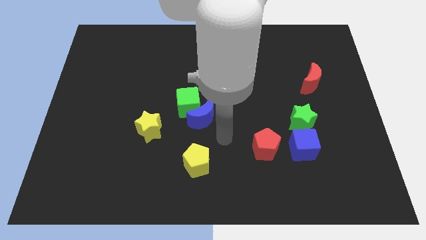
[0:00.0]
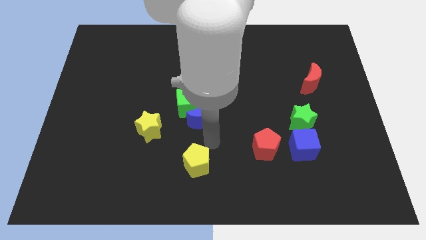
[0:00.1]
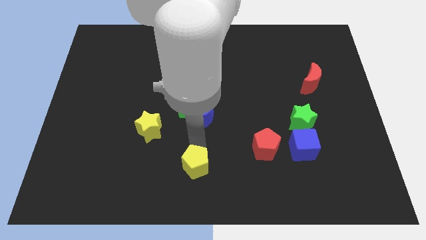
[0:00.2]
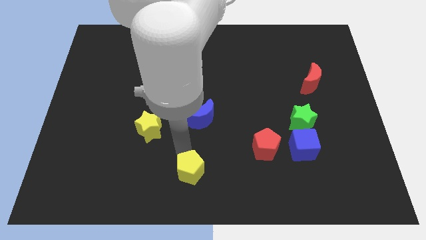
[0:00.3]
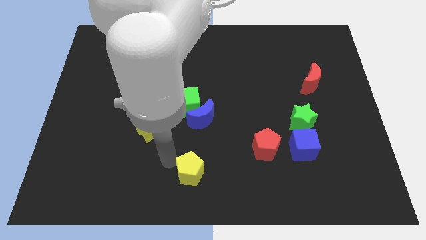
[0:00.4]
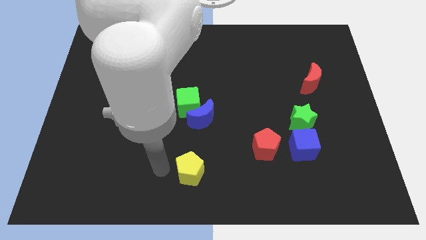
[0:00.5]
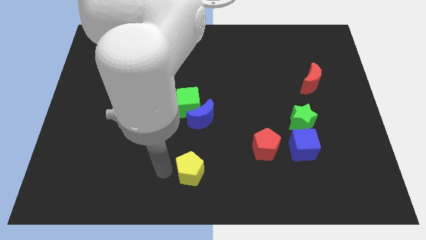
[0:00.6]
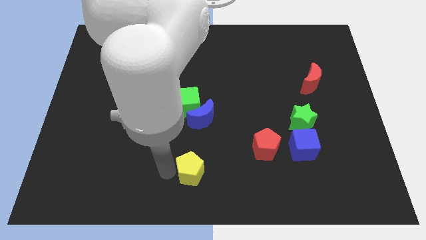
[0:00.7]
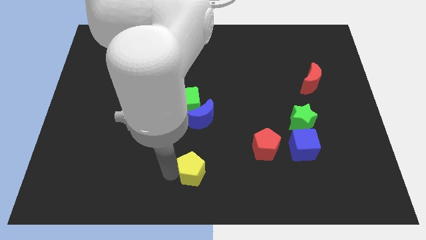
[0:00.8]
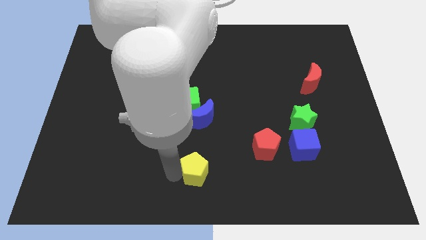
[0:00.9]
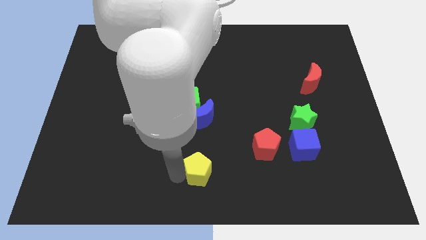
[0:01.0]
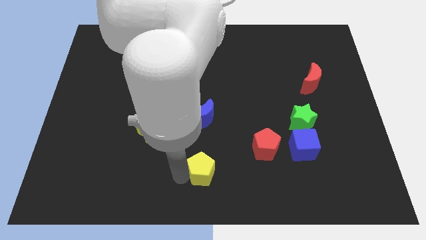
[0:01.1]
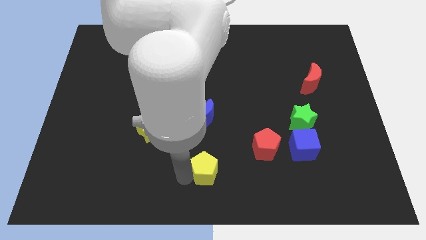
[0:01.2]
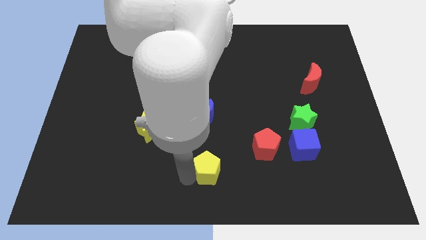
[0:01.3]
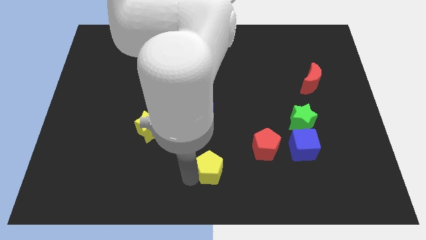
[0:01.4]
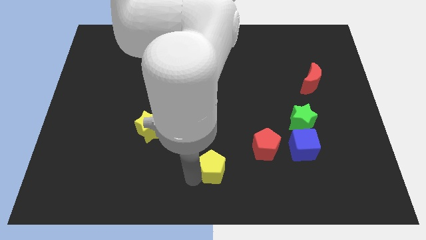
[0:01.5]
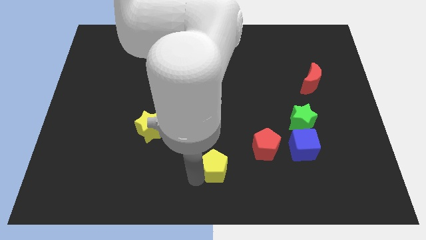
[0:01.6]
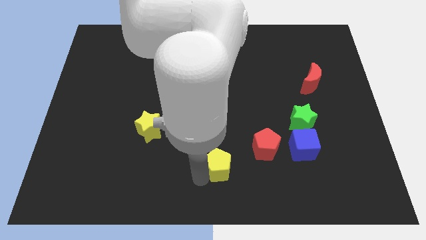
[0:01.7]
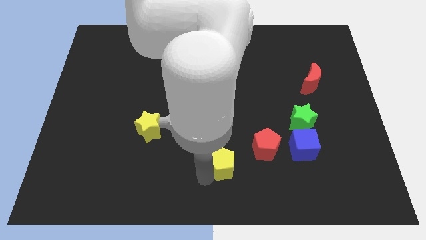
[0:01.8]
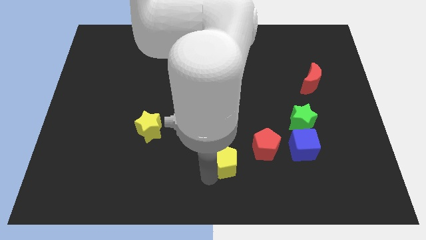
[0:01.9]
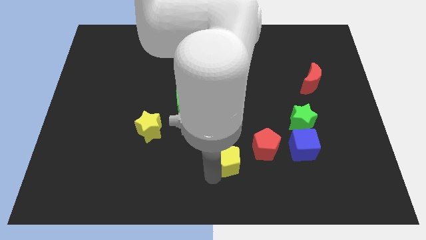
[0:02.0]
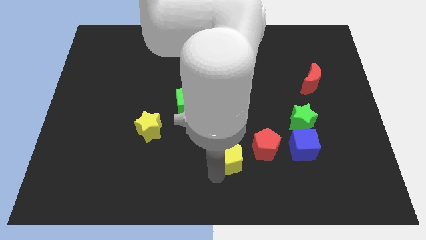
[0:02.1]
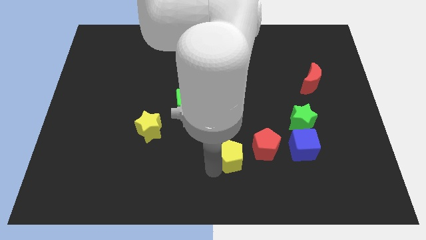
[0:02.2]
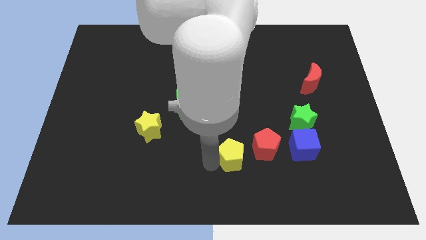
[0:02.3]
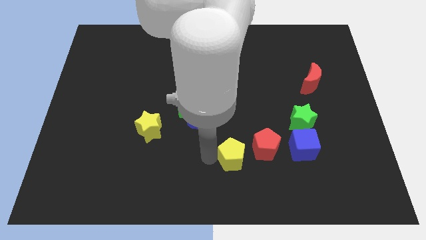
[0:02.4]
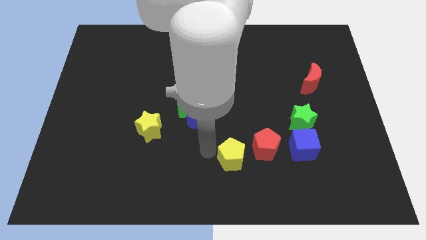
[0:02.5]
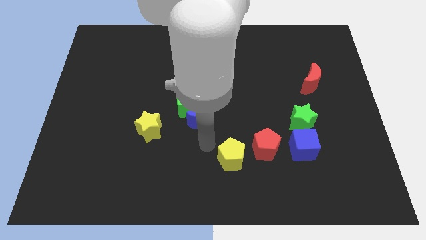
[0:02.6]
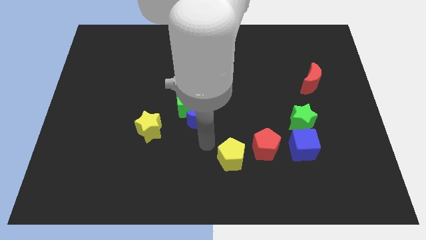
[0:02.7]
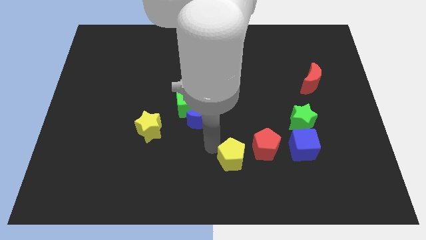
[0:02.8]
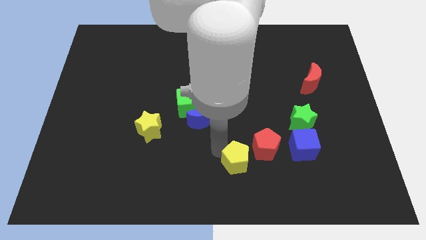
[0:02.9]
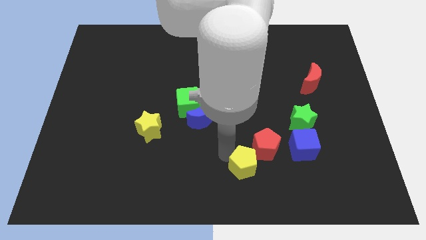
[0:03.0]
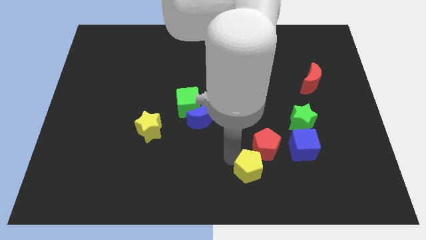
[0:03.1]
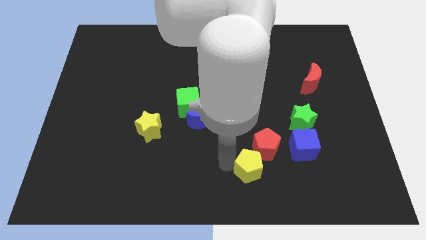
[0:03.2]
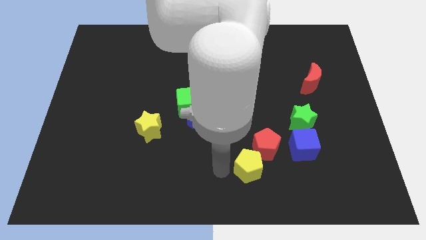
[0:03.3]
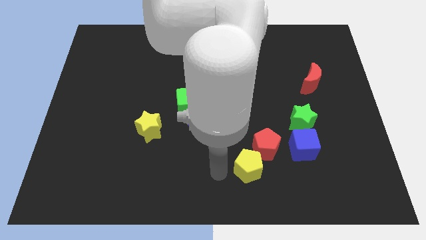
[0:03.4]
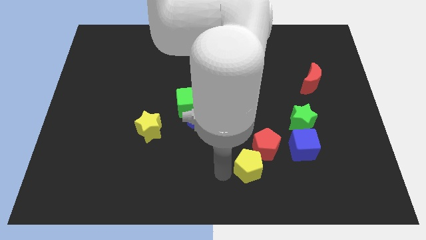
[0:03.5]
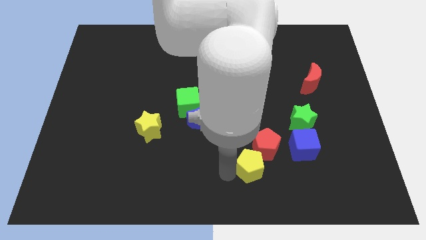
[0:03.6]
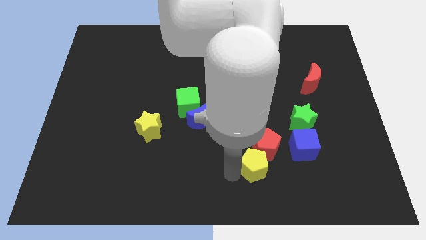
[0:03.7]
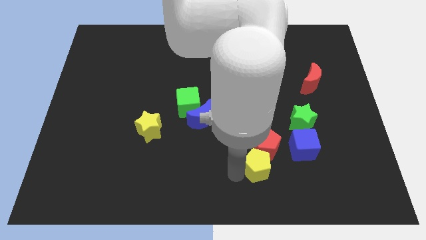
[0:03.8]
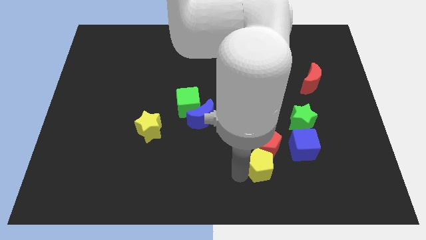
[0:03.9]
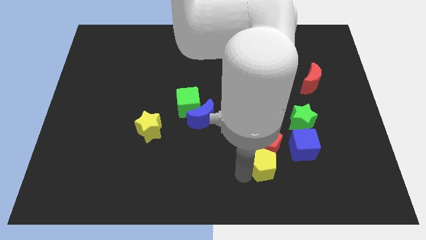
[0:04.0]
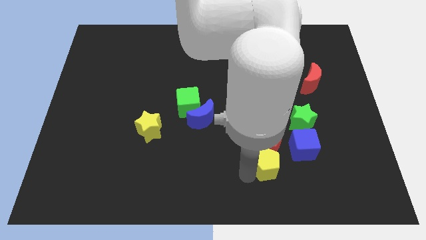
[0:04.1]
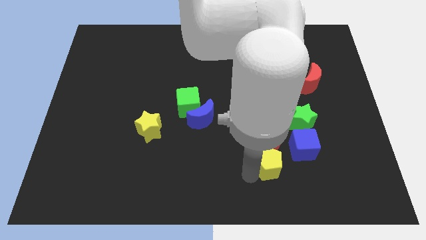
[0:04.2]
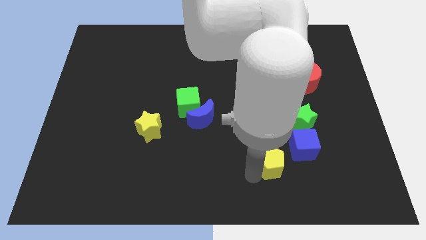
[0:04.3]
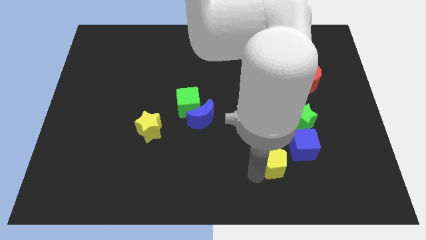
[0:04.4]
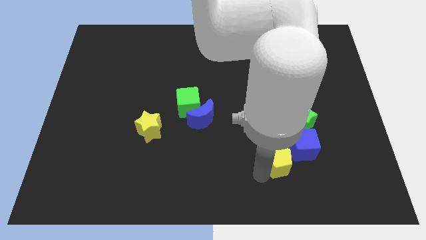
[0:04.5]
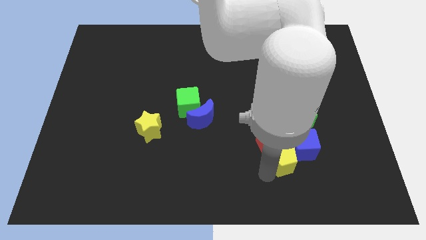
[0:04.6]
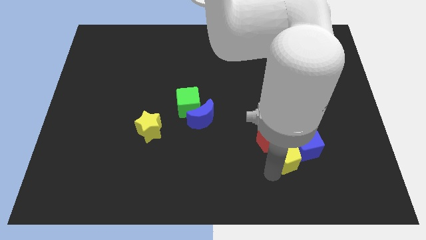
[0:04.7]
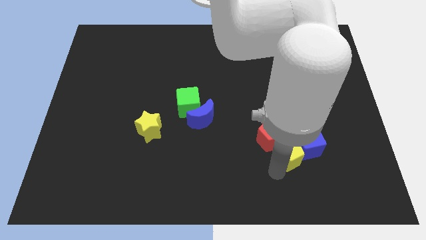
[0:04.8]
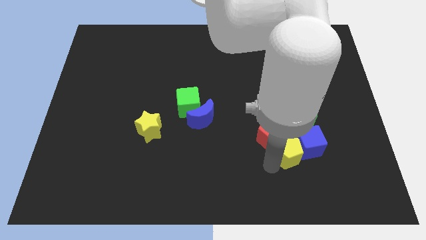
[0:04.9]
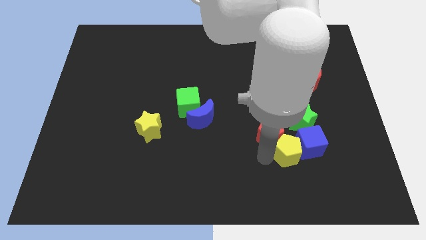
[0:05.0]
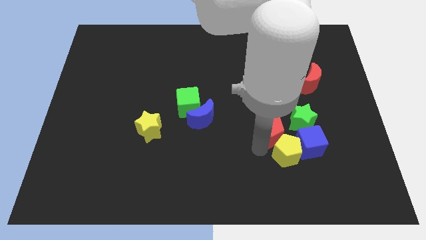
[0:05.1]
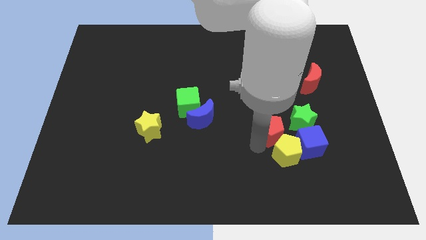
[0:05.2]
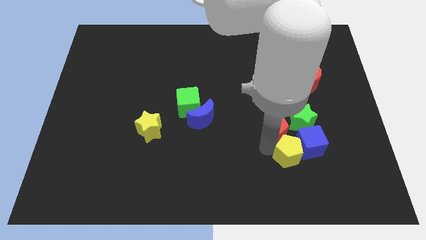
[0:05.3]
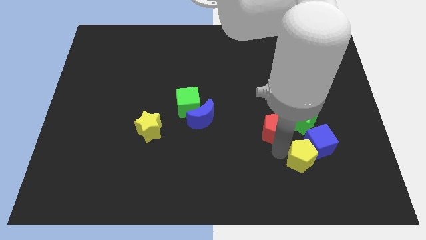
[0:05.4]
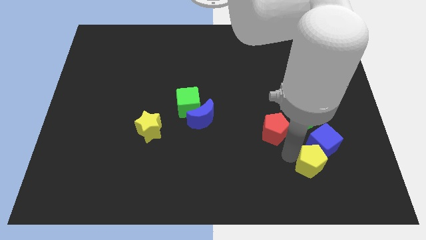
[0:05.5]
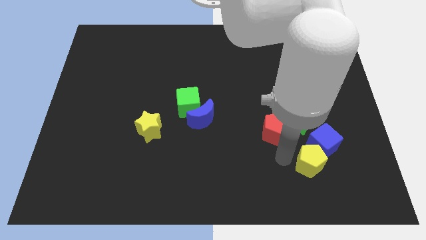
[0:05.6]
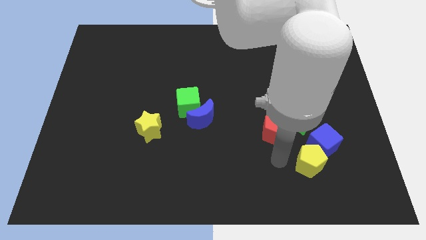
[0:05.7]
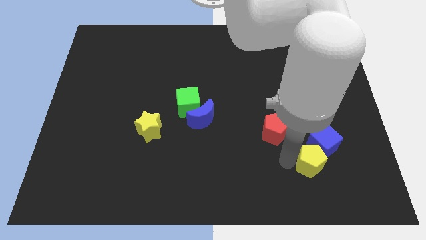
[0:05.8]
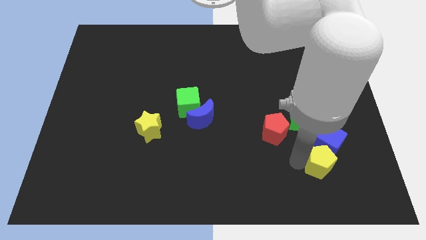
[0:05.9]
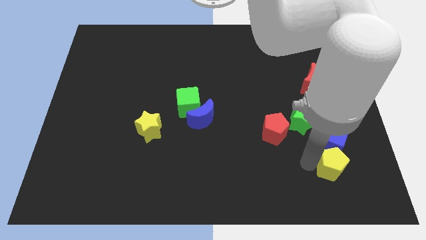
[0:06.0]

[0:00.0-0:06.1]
put the yellow pentagon to the bottom right of the blue cube

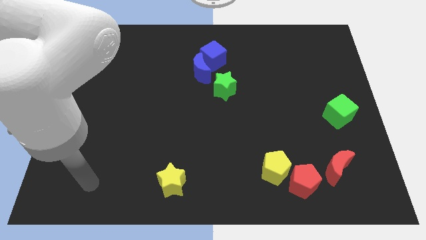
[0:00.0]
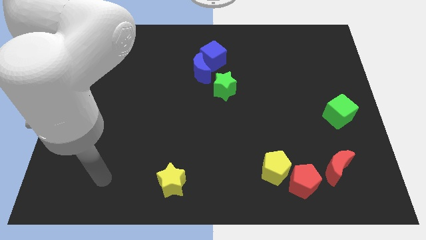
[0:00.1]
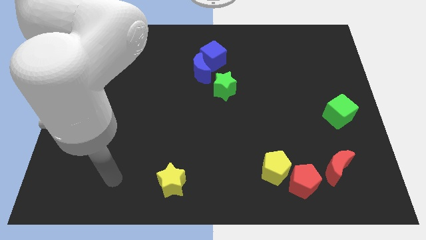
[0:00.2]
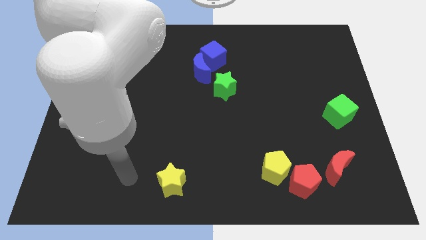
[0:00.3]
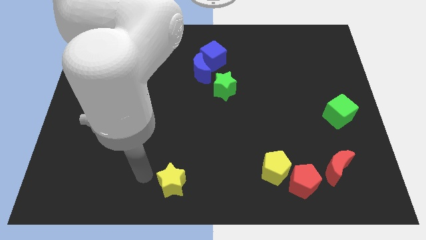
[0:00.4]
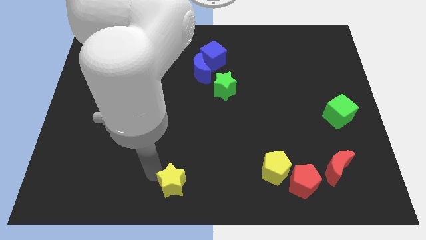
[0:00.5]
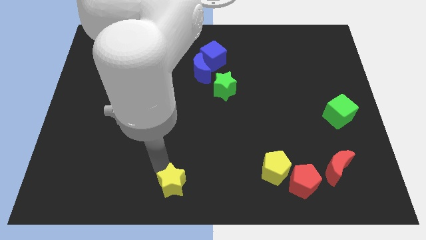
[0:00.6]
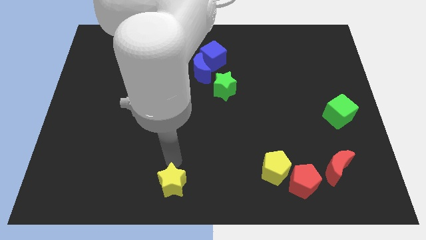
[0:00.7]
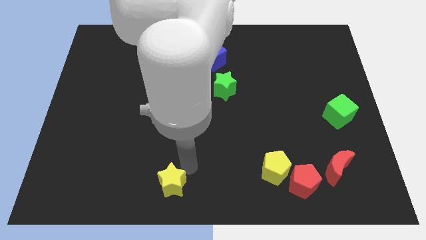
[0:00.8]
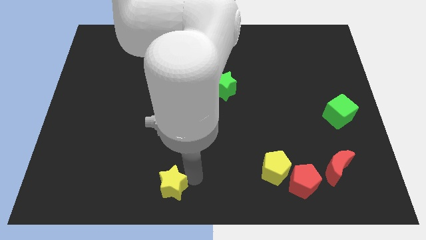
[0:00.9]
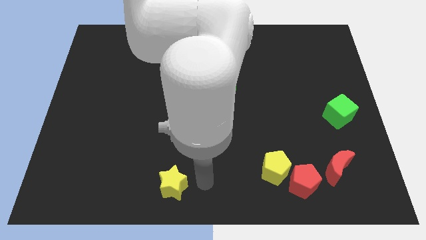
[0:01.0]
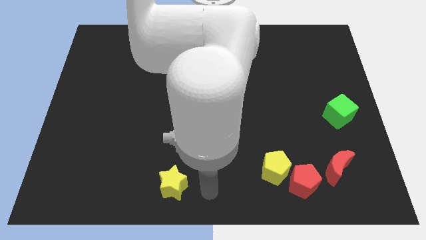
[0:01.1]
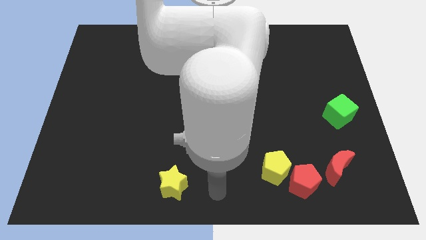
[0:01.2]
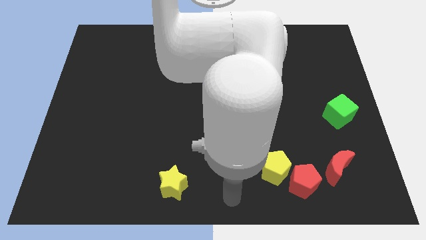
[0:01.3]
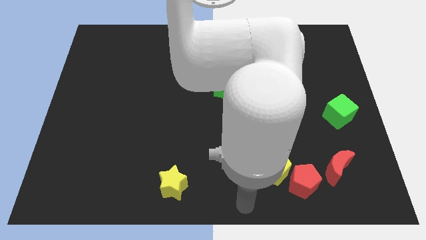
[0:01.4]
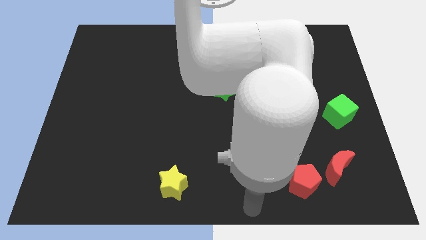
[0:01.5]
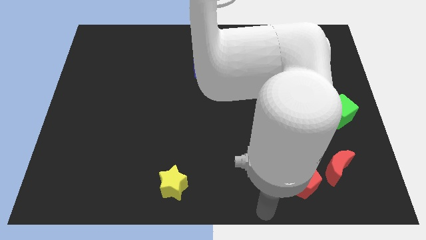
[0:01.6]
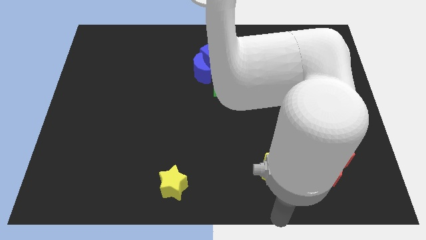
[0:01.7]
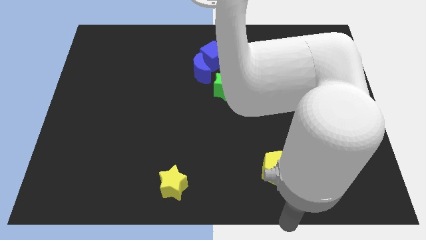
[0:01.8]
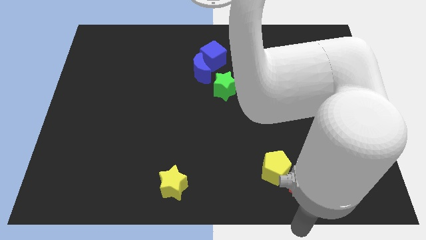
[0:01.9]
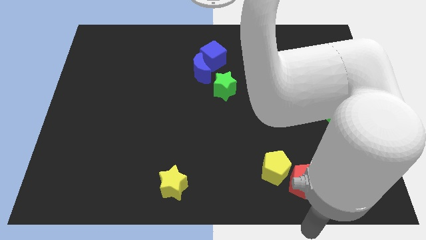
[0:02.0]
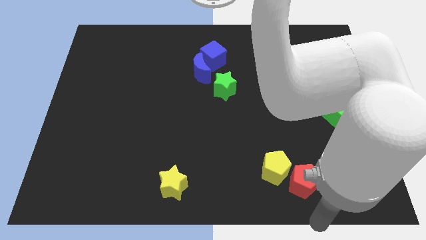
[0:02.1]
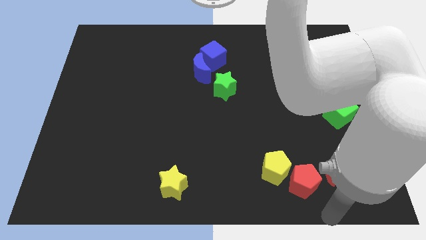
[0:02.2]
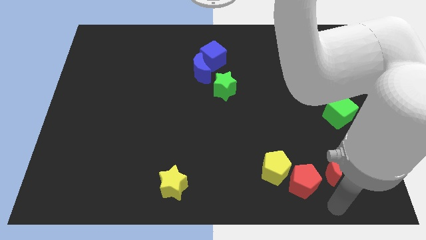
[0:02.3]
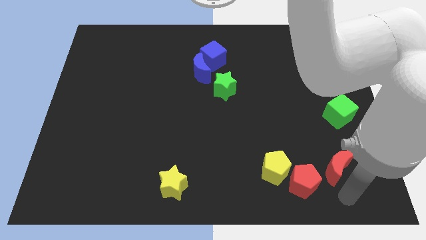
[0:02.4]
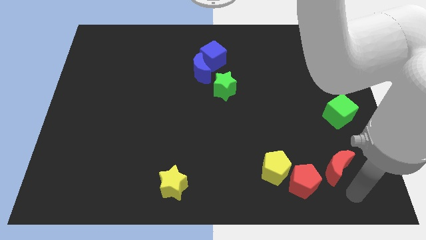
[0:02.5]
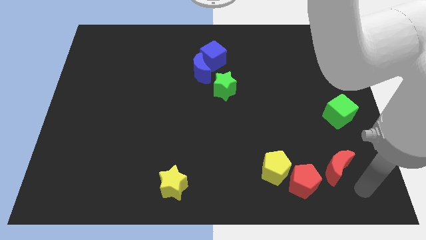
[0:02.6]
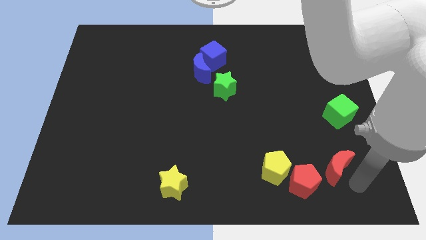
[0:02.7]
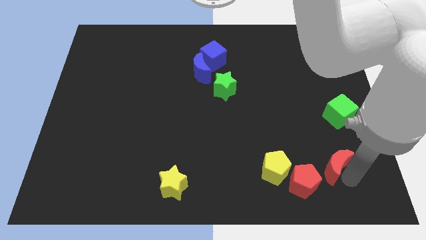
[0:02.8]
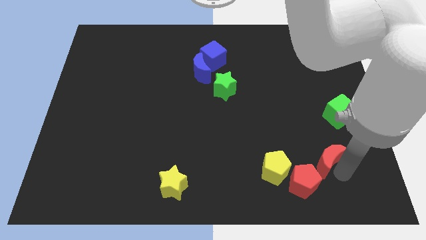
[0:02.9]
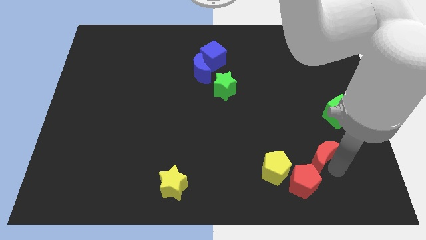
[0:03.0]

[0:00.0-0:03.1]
slide the red moon above the red pentagon
